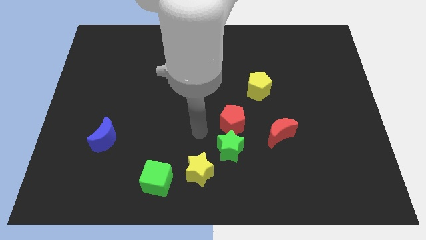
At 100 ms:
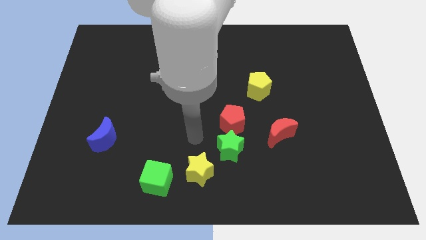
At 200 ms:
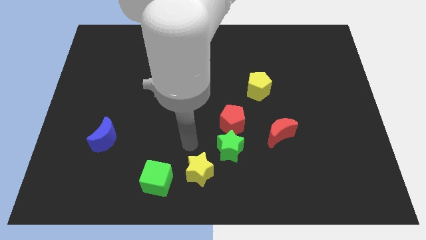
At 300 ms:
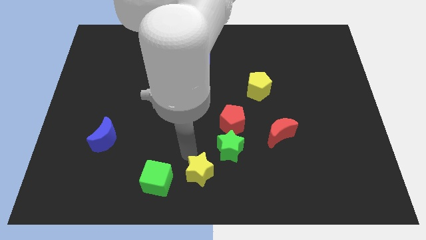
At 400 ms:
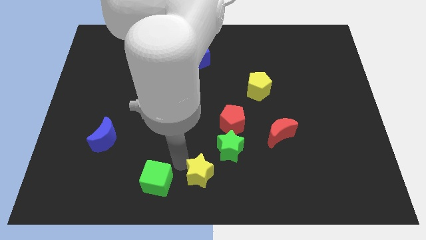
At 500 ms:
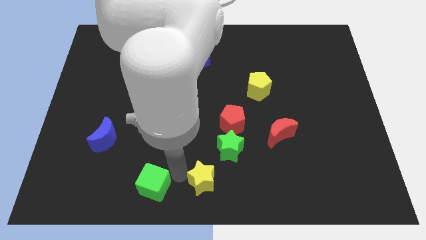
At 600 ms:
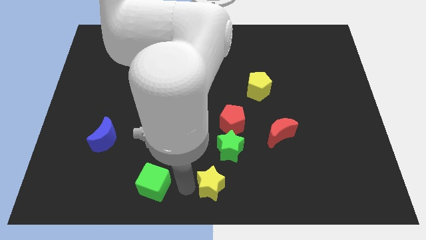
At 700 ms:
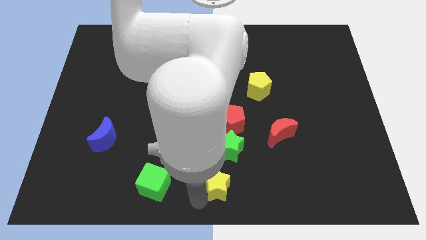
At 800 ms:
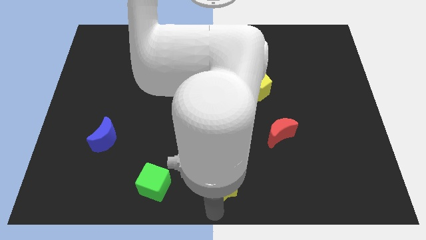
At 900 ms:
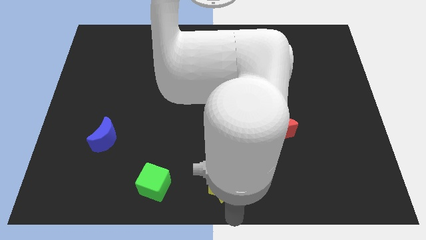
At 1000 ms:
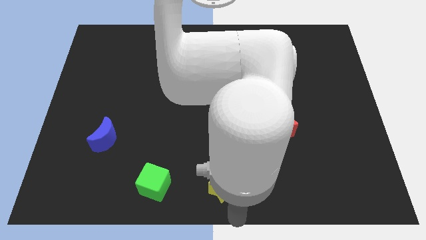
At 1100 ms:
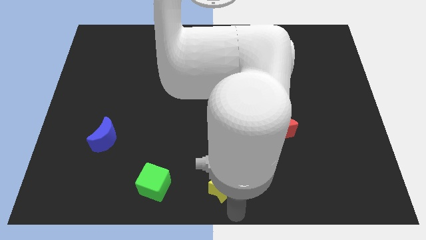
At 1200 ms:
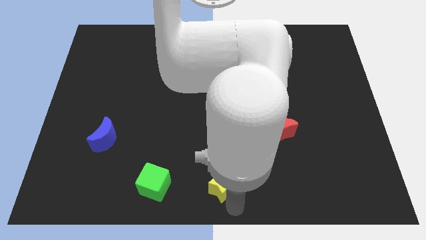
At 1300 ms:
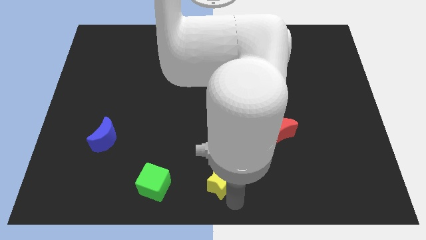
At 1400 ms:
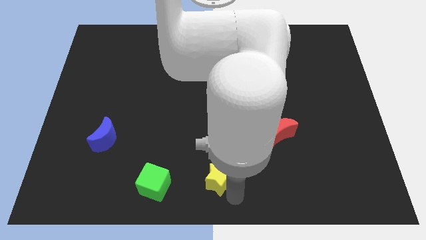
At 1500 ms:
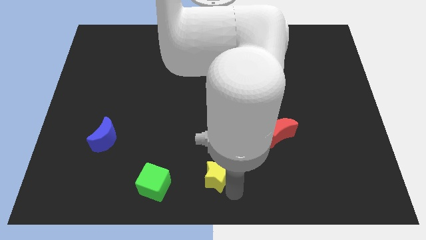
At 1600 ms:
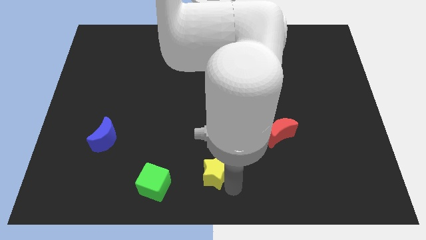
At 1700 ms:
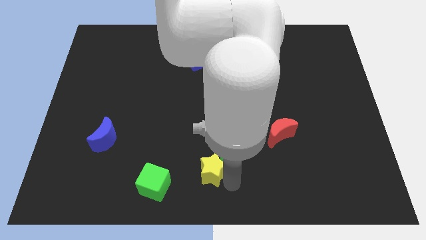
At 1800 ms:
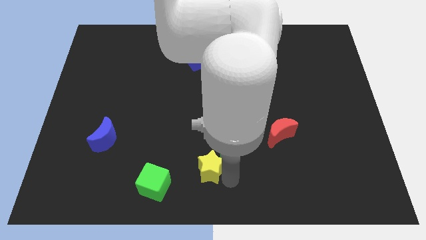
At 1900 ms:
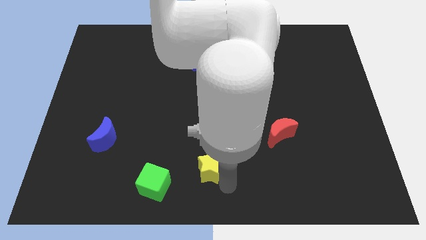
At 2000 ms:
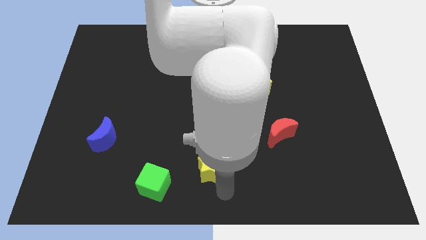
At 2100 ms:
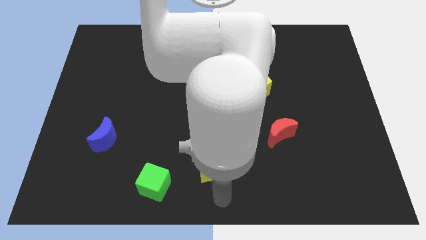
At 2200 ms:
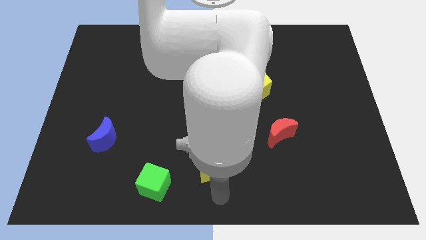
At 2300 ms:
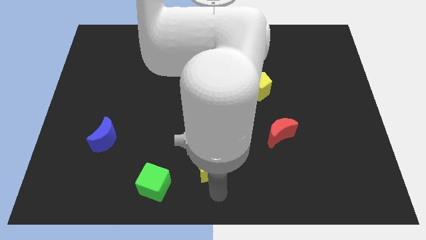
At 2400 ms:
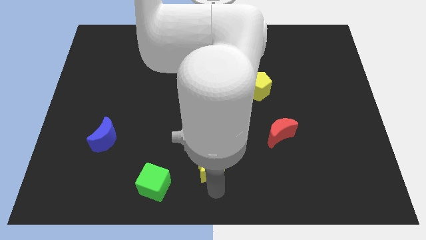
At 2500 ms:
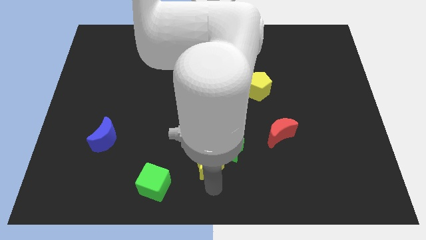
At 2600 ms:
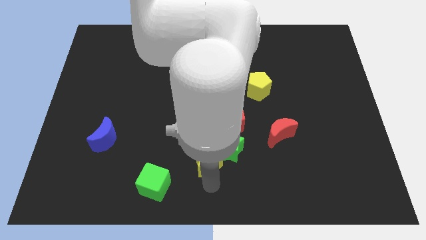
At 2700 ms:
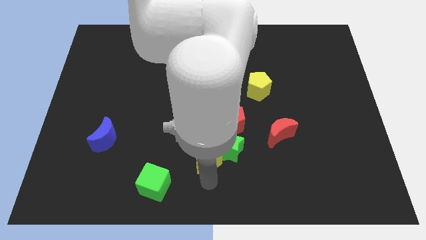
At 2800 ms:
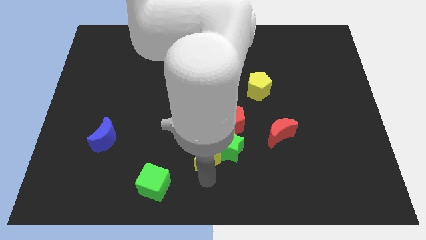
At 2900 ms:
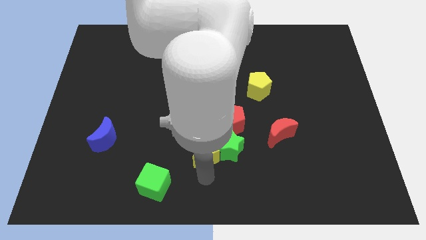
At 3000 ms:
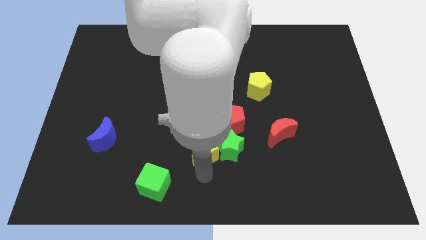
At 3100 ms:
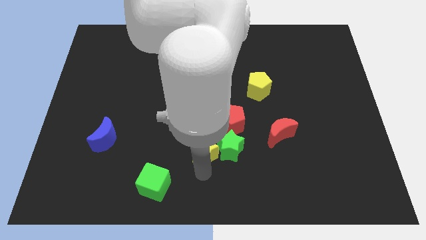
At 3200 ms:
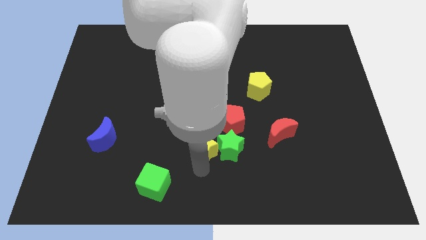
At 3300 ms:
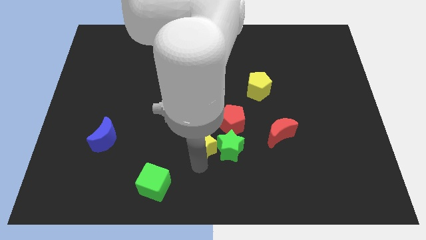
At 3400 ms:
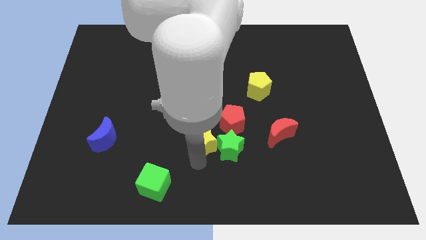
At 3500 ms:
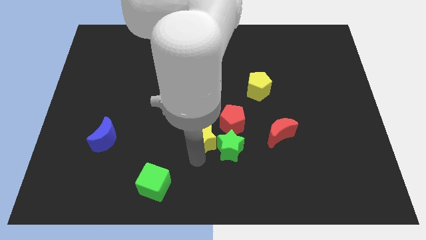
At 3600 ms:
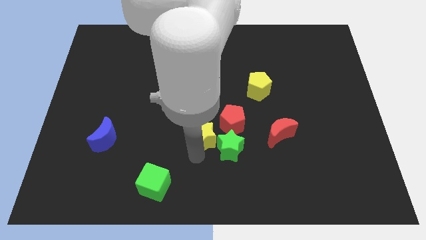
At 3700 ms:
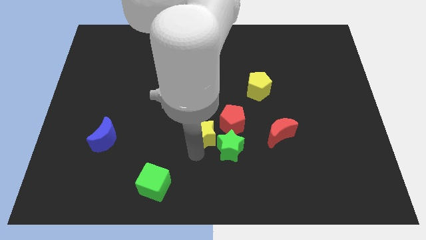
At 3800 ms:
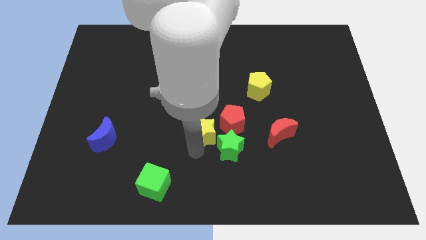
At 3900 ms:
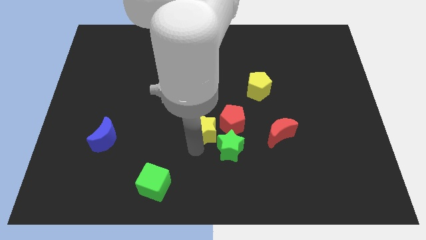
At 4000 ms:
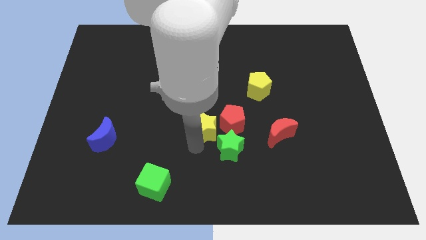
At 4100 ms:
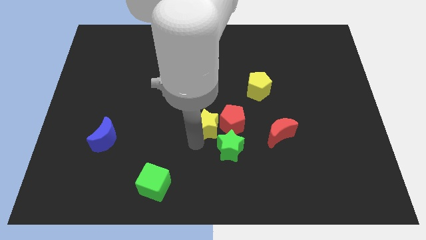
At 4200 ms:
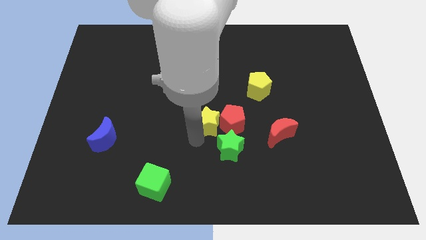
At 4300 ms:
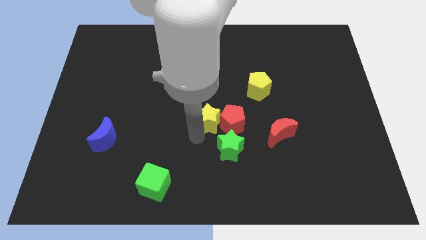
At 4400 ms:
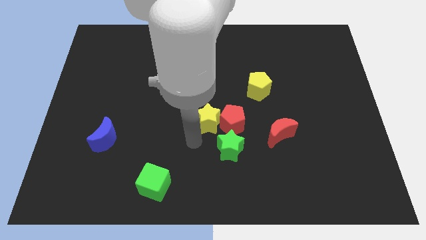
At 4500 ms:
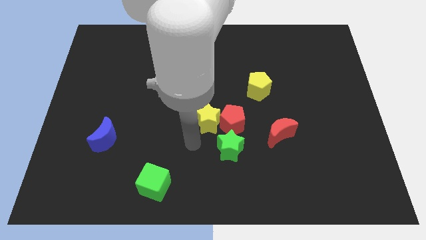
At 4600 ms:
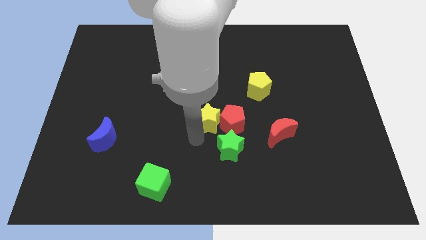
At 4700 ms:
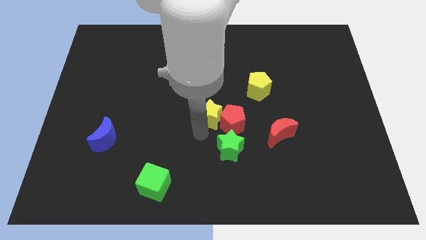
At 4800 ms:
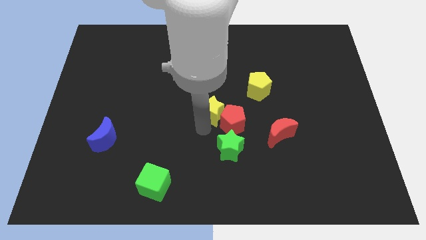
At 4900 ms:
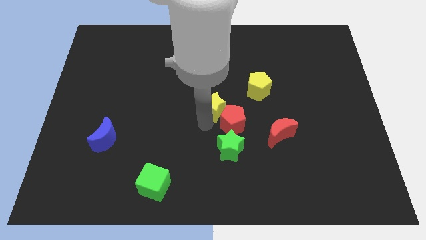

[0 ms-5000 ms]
slide the yellow star to the top of the red pentagon

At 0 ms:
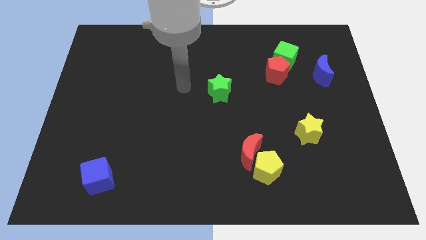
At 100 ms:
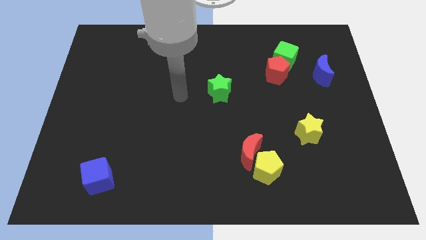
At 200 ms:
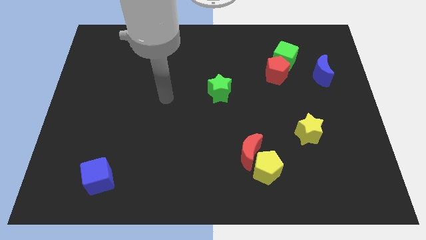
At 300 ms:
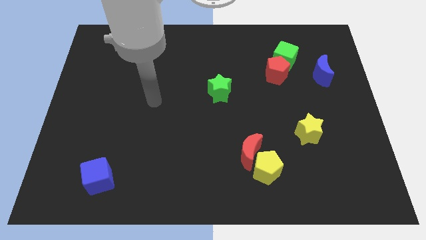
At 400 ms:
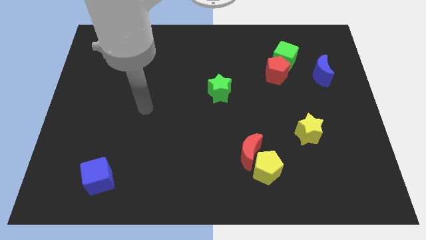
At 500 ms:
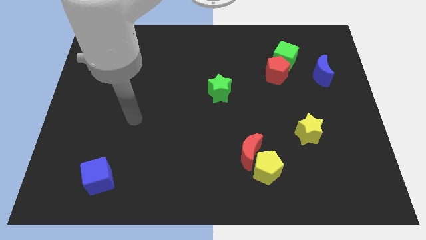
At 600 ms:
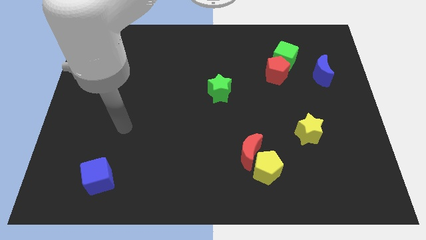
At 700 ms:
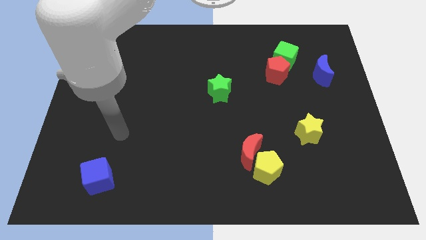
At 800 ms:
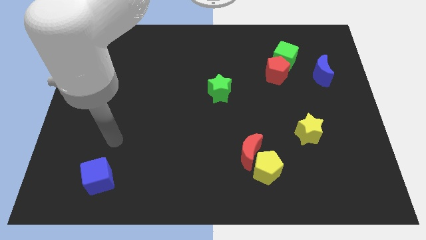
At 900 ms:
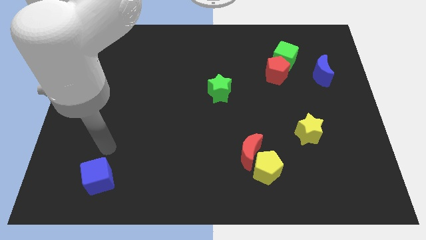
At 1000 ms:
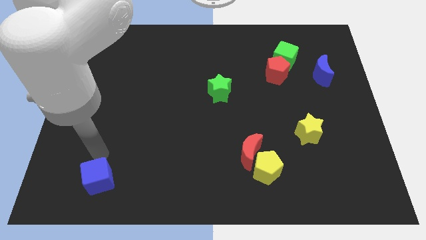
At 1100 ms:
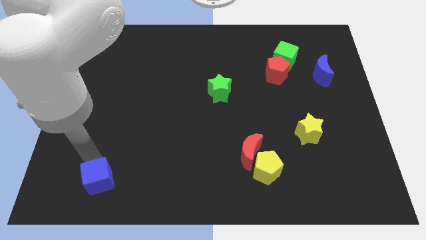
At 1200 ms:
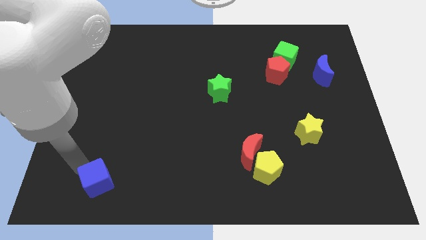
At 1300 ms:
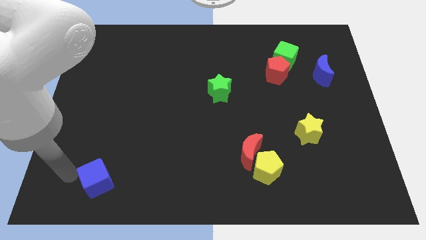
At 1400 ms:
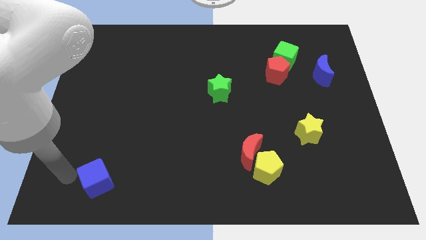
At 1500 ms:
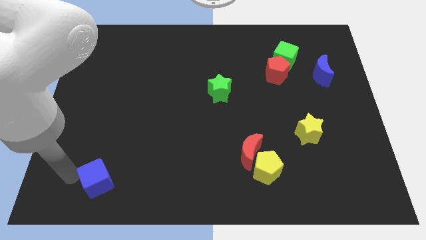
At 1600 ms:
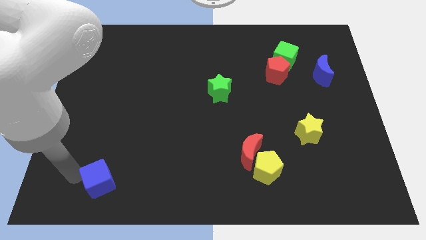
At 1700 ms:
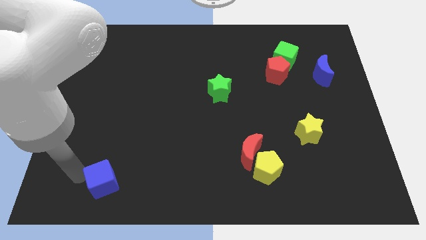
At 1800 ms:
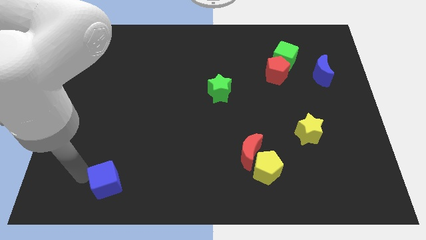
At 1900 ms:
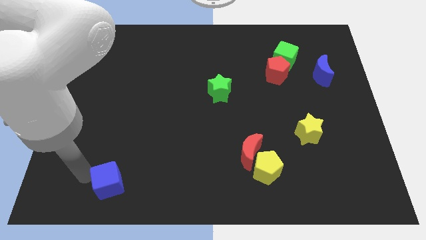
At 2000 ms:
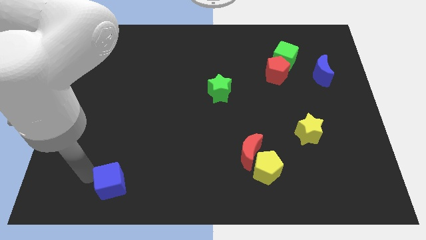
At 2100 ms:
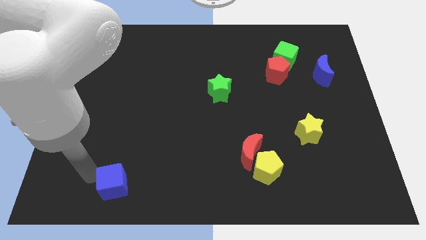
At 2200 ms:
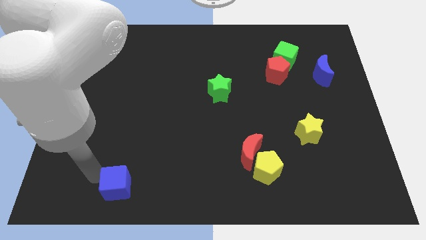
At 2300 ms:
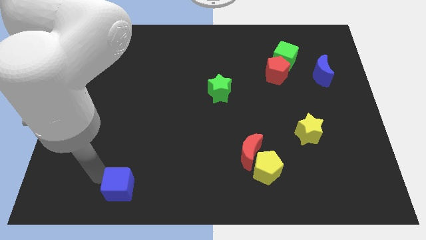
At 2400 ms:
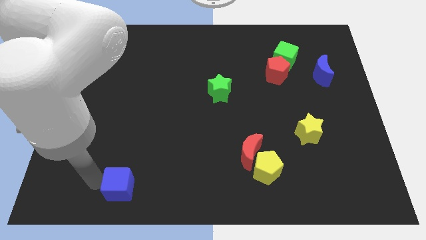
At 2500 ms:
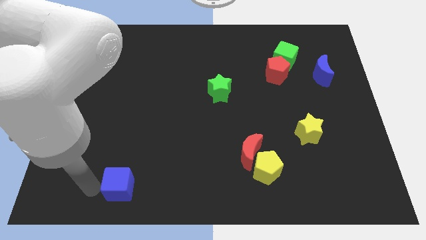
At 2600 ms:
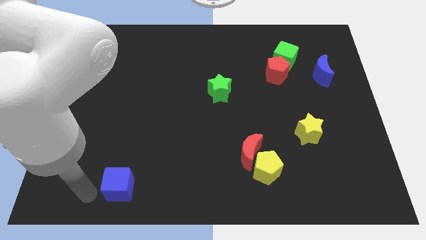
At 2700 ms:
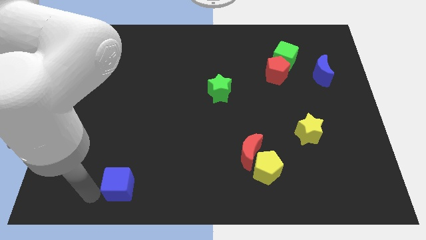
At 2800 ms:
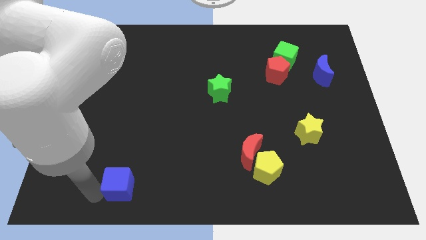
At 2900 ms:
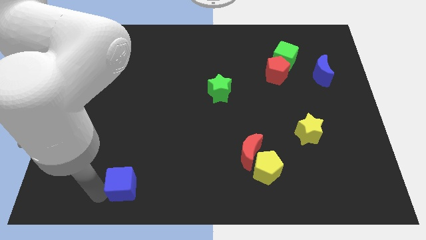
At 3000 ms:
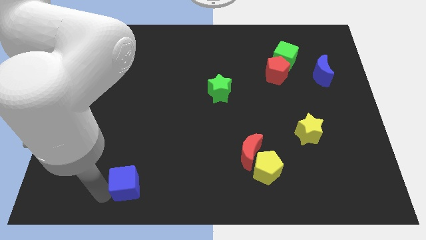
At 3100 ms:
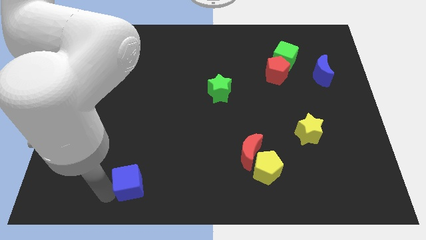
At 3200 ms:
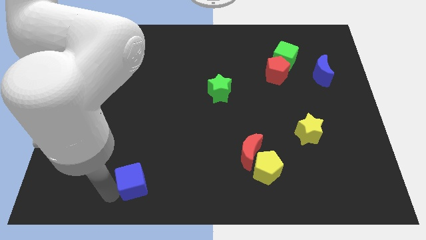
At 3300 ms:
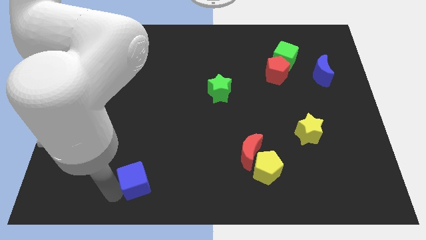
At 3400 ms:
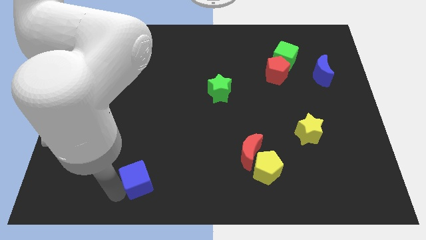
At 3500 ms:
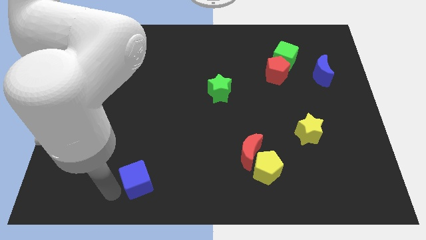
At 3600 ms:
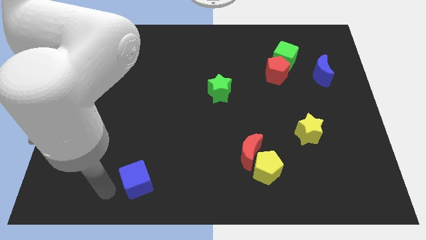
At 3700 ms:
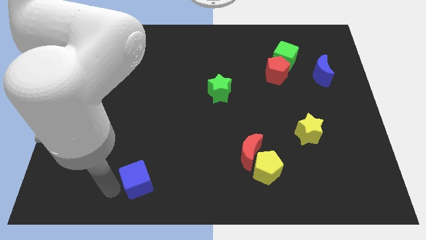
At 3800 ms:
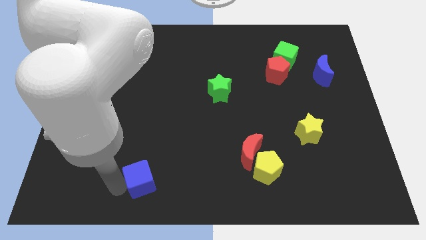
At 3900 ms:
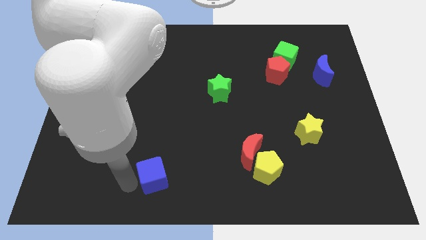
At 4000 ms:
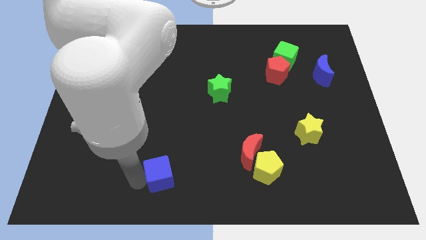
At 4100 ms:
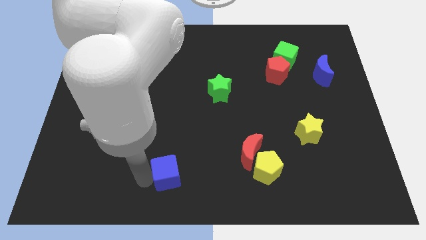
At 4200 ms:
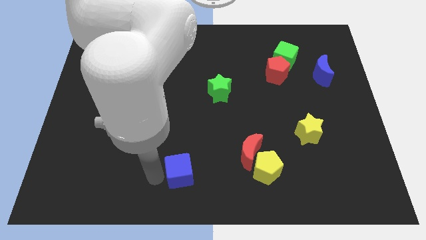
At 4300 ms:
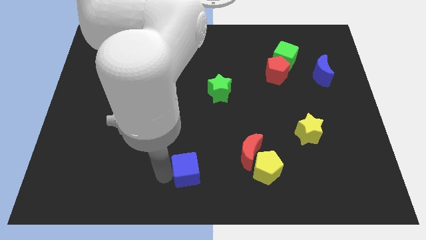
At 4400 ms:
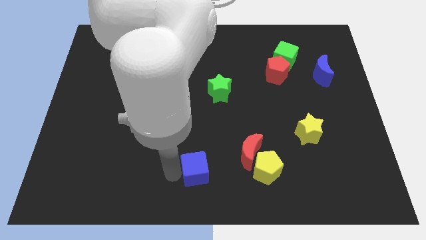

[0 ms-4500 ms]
push the blue cube left of the yellow pentagon
